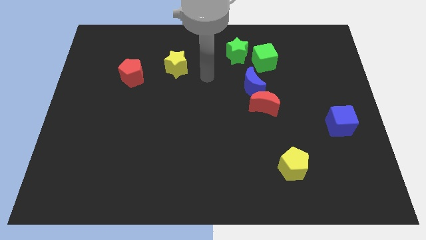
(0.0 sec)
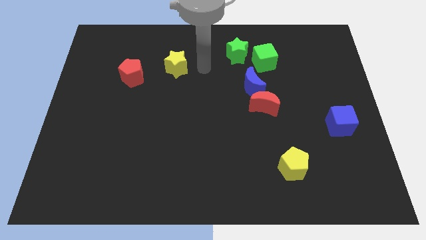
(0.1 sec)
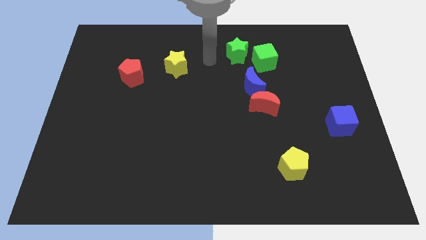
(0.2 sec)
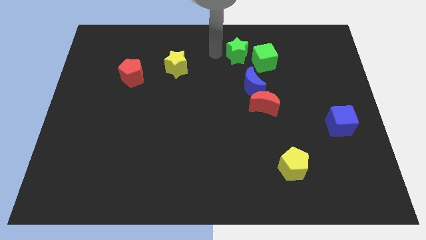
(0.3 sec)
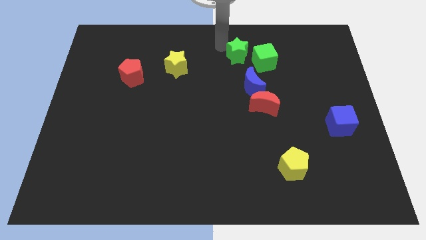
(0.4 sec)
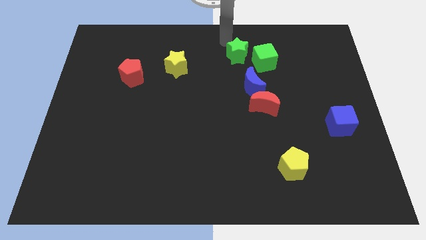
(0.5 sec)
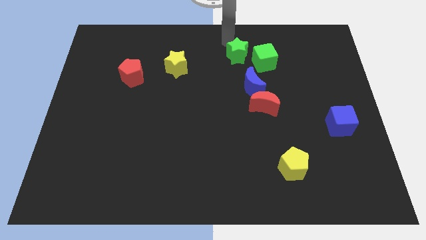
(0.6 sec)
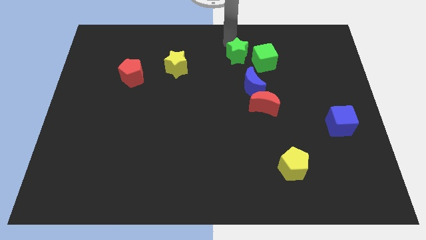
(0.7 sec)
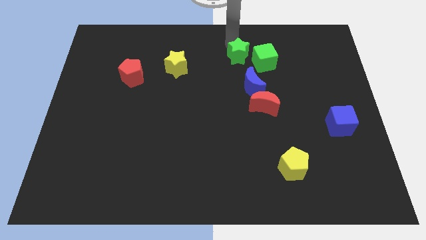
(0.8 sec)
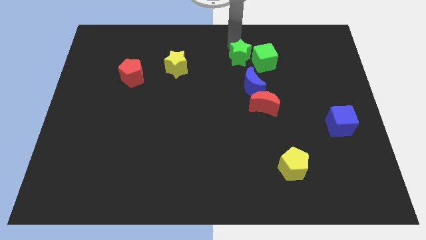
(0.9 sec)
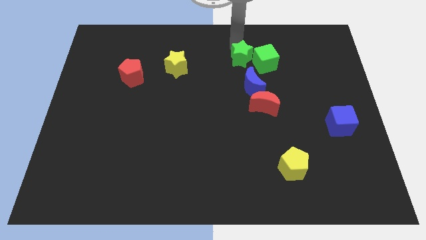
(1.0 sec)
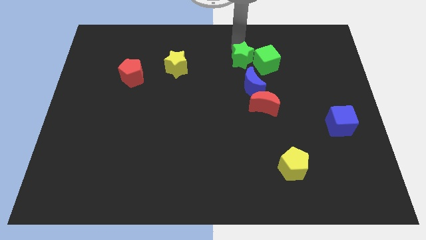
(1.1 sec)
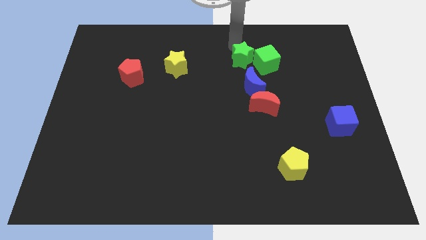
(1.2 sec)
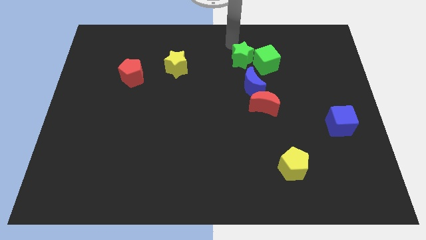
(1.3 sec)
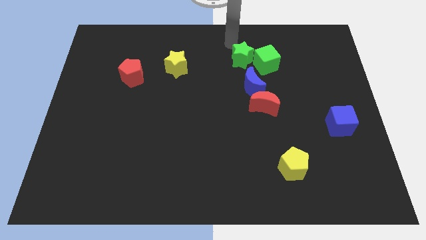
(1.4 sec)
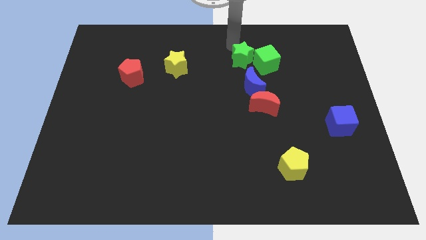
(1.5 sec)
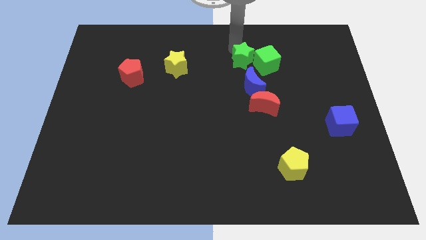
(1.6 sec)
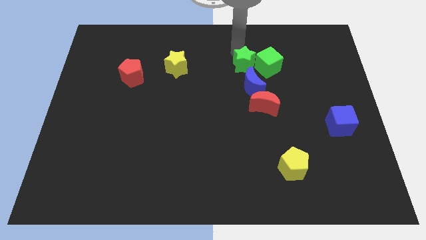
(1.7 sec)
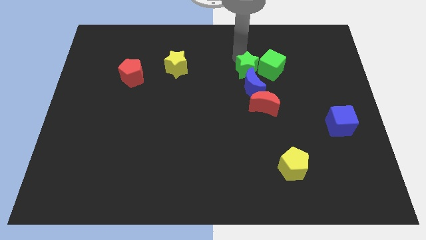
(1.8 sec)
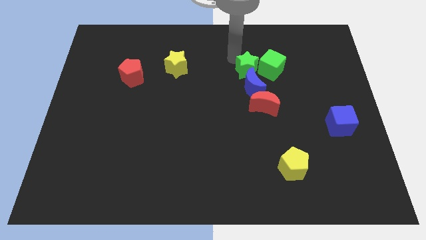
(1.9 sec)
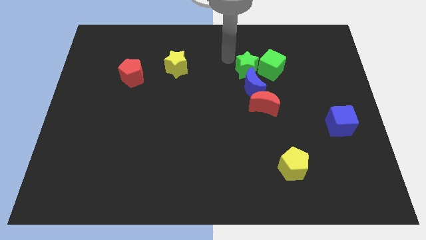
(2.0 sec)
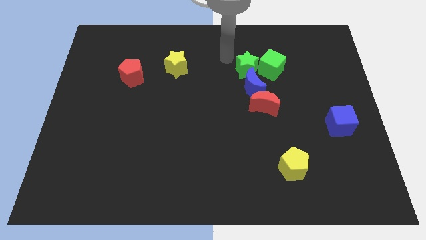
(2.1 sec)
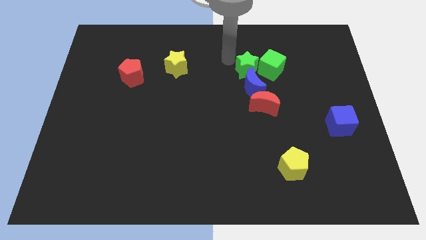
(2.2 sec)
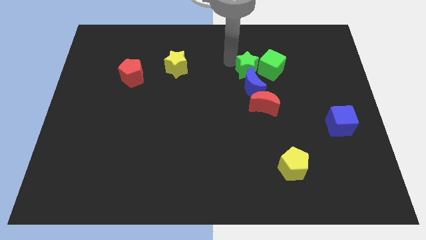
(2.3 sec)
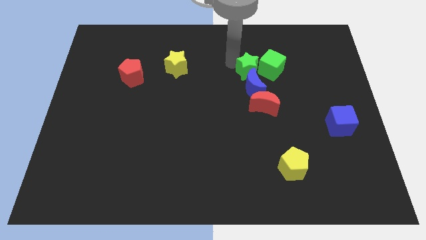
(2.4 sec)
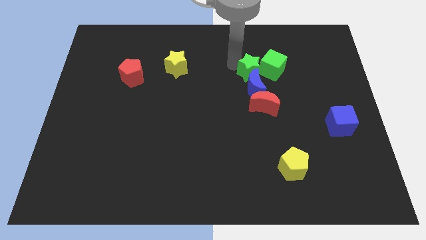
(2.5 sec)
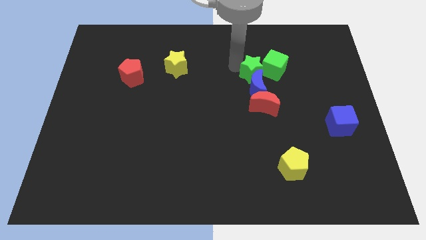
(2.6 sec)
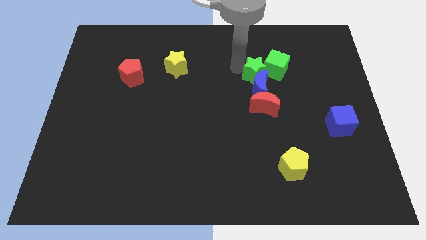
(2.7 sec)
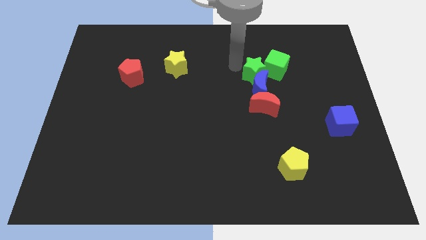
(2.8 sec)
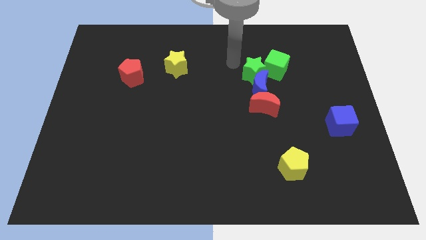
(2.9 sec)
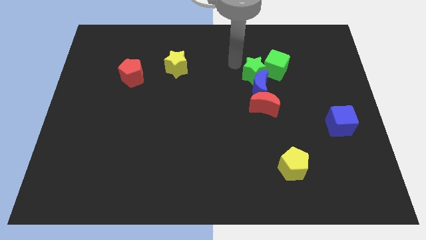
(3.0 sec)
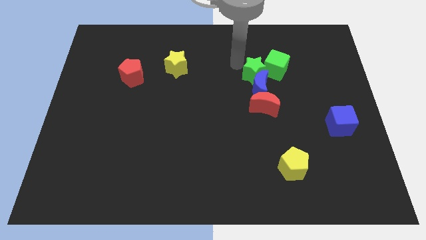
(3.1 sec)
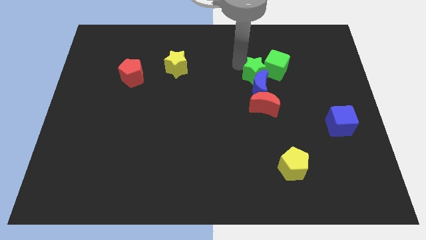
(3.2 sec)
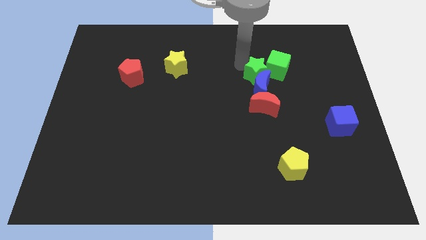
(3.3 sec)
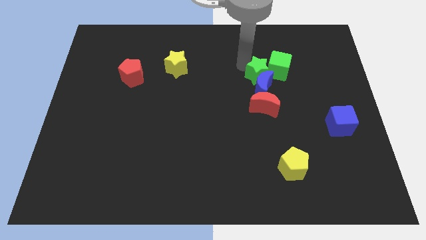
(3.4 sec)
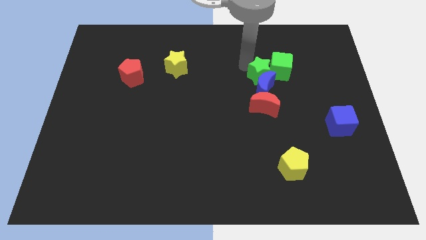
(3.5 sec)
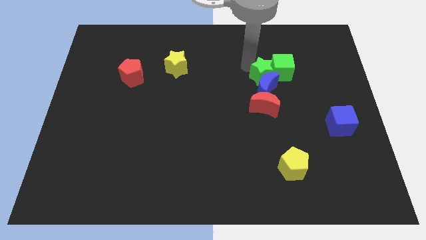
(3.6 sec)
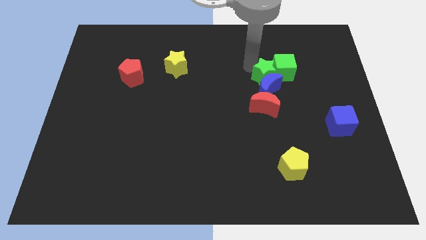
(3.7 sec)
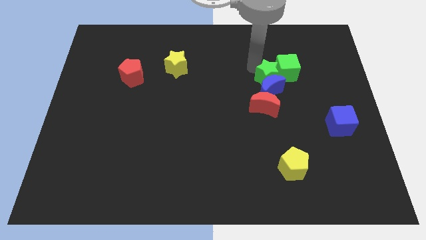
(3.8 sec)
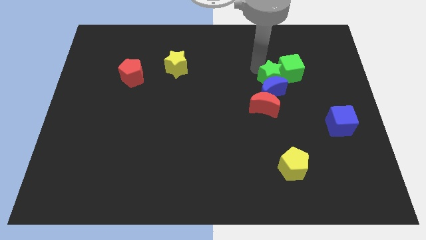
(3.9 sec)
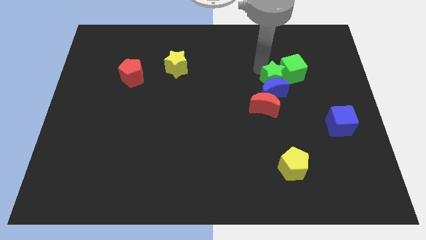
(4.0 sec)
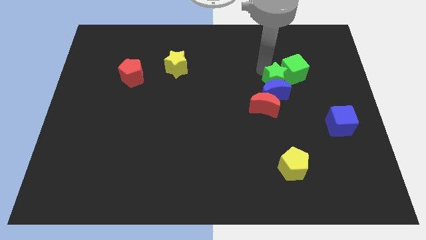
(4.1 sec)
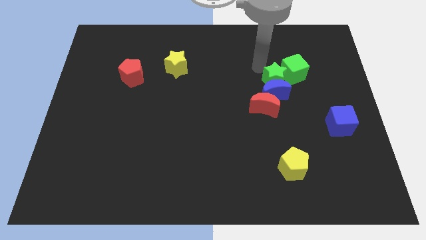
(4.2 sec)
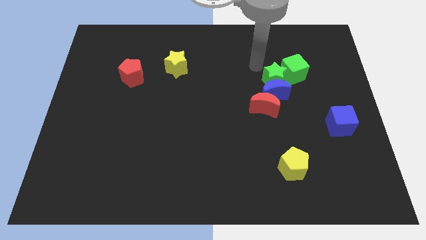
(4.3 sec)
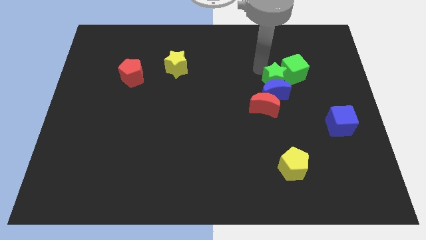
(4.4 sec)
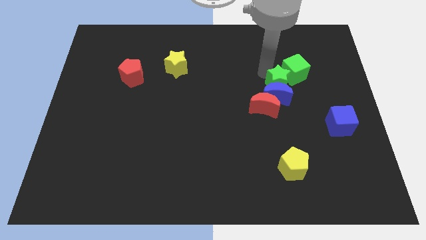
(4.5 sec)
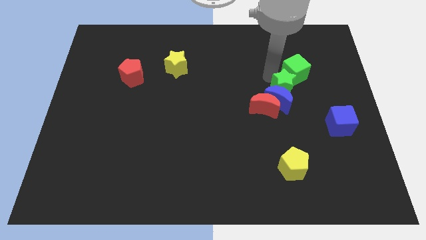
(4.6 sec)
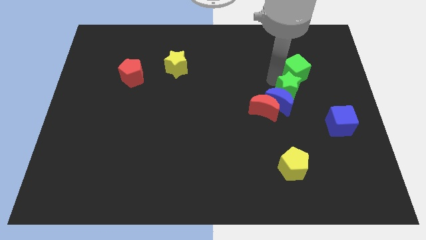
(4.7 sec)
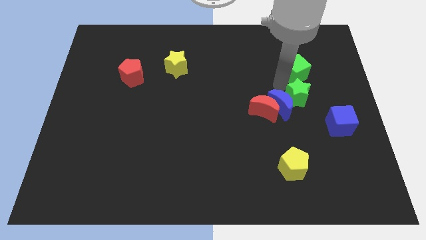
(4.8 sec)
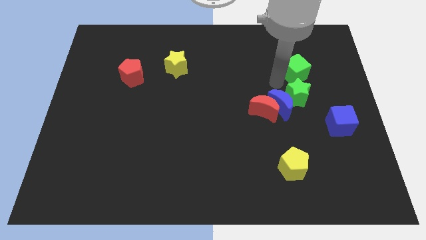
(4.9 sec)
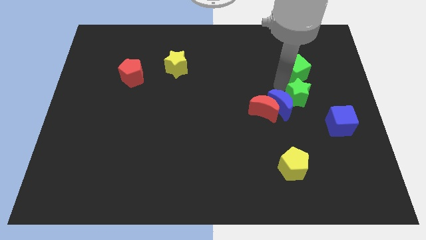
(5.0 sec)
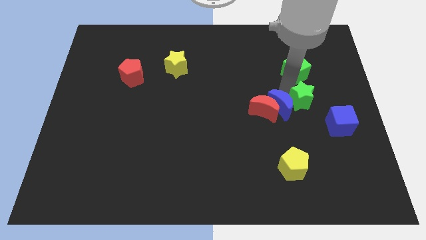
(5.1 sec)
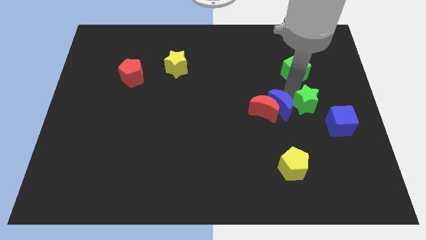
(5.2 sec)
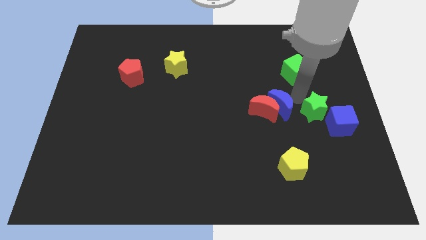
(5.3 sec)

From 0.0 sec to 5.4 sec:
push the green star towards the blue cube

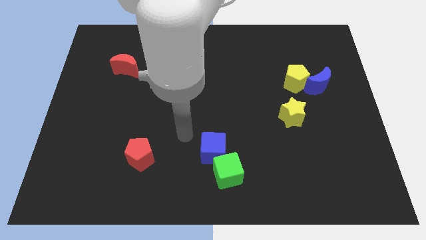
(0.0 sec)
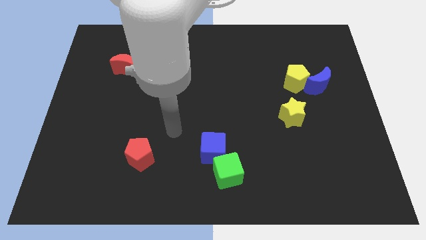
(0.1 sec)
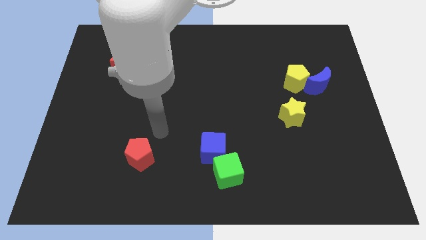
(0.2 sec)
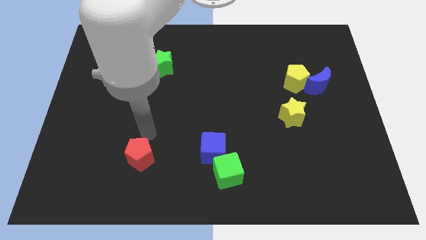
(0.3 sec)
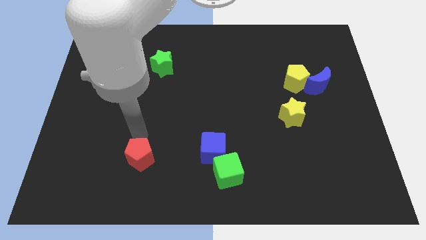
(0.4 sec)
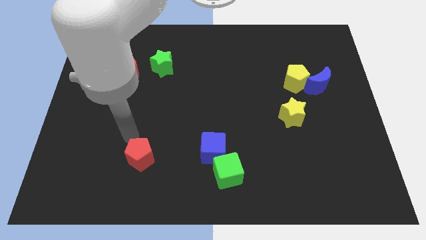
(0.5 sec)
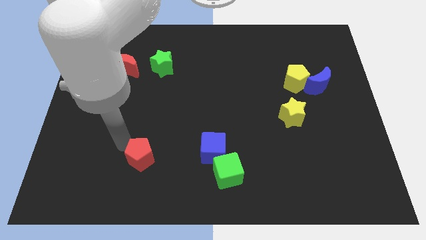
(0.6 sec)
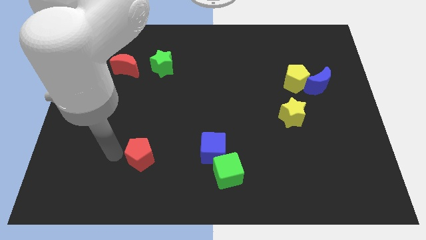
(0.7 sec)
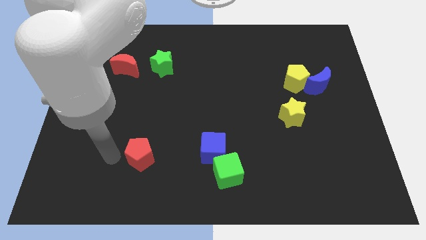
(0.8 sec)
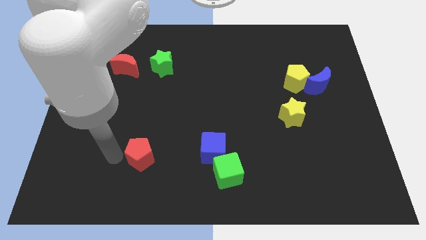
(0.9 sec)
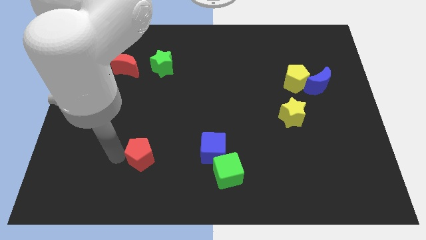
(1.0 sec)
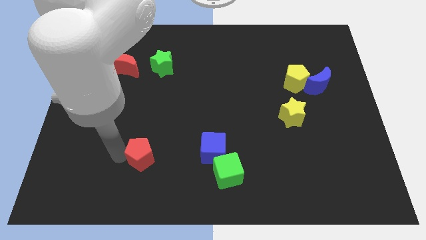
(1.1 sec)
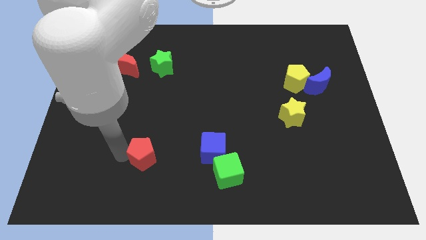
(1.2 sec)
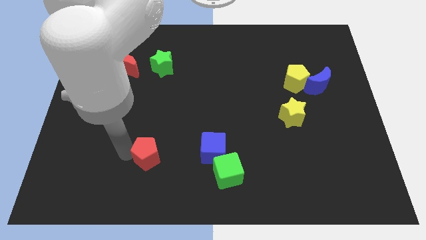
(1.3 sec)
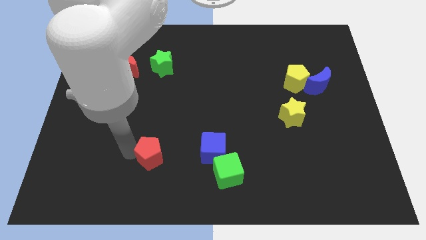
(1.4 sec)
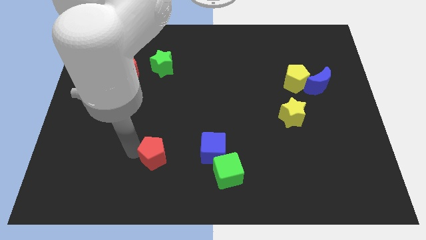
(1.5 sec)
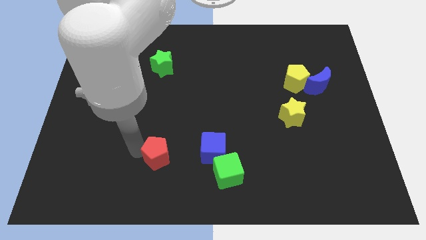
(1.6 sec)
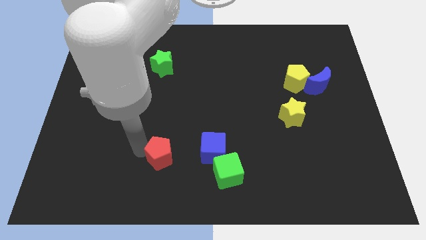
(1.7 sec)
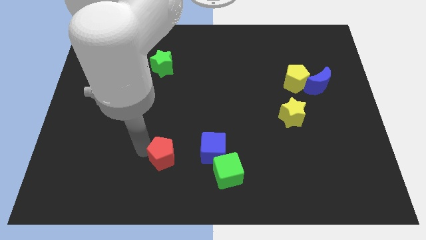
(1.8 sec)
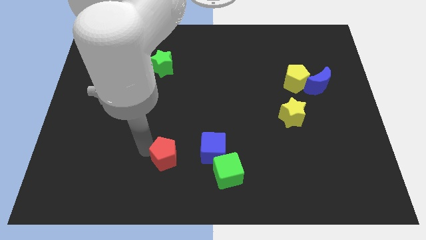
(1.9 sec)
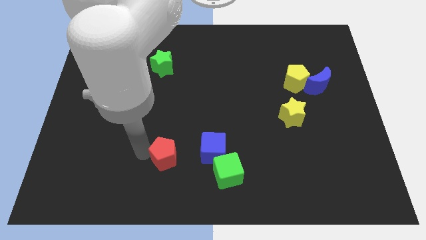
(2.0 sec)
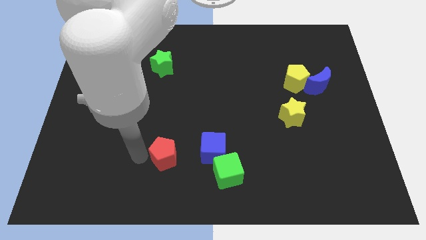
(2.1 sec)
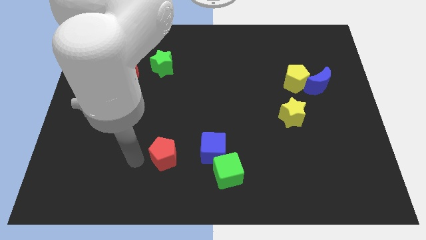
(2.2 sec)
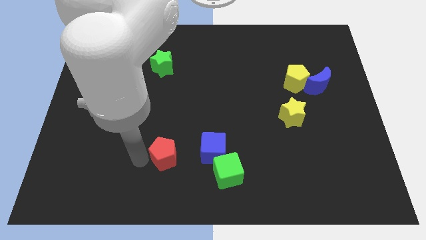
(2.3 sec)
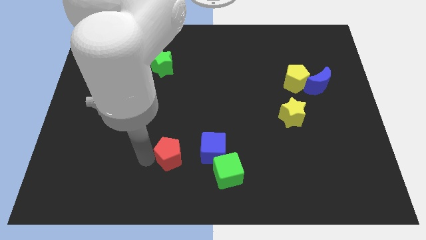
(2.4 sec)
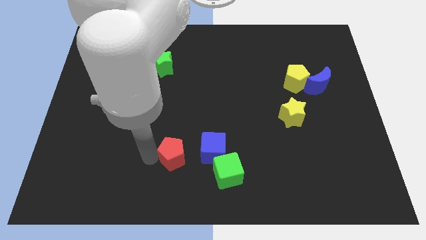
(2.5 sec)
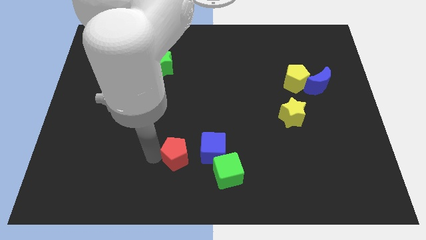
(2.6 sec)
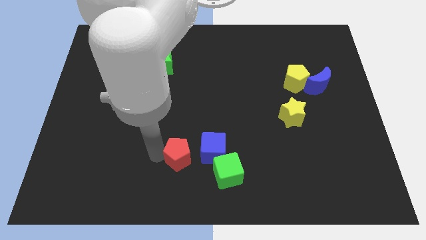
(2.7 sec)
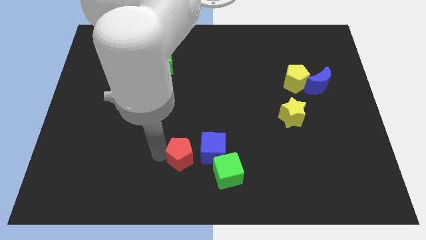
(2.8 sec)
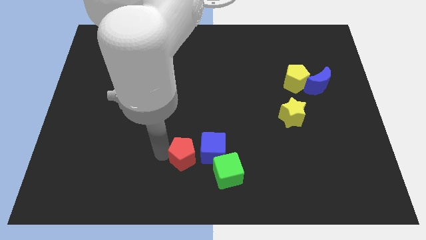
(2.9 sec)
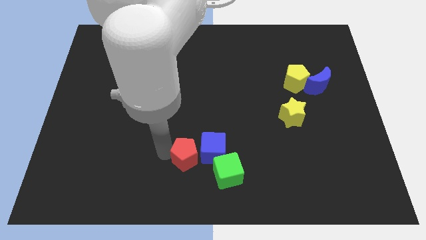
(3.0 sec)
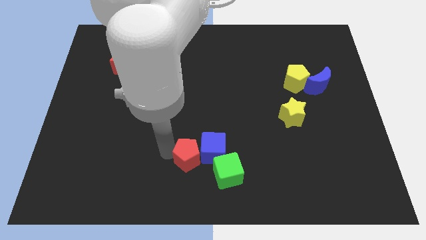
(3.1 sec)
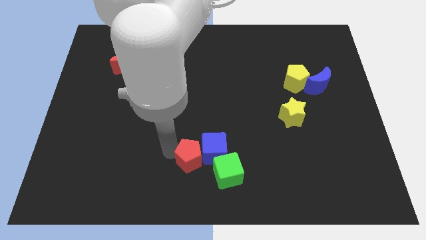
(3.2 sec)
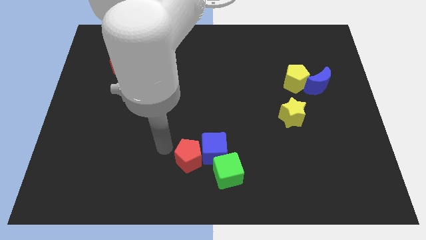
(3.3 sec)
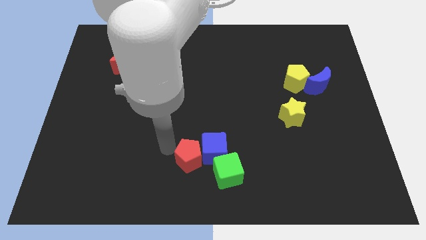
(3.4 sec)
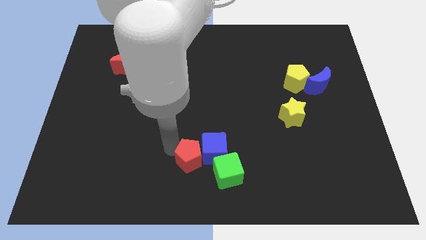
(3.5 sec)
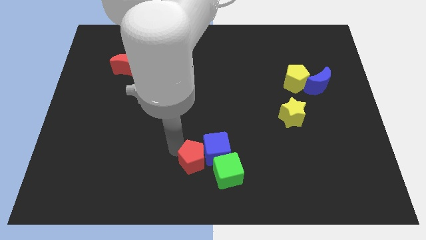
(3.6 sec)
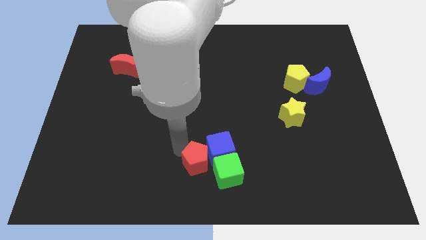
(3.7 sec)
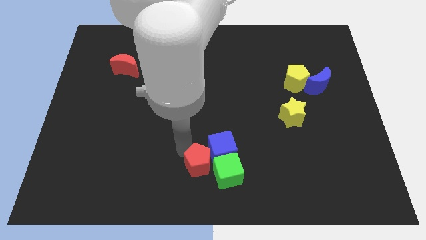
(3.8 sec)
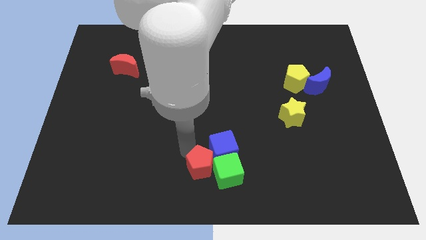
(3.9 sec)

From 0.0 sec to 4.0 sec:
put the red pentagon to the green cube
